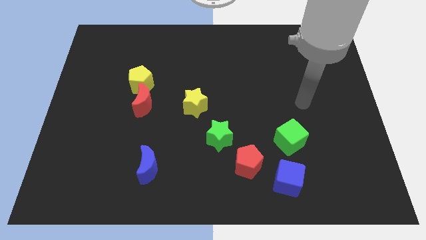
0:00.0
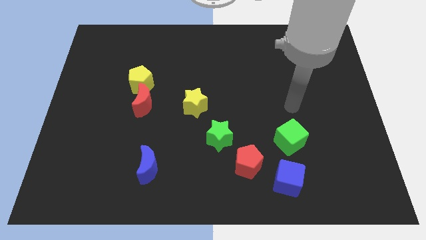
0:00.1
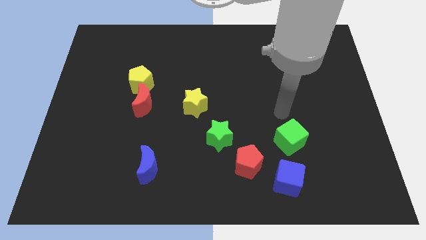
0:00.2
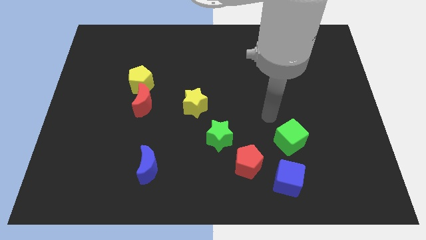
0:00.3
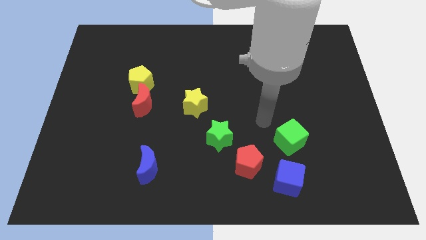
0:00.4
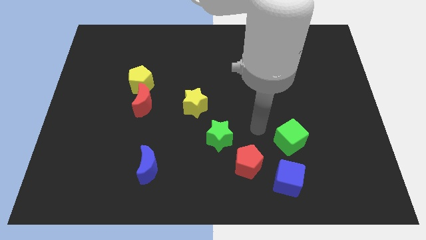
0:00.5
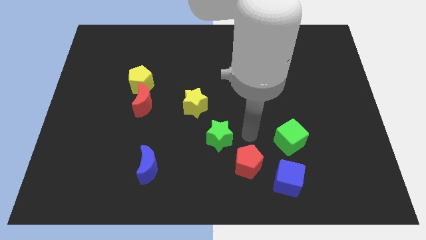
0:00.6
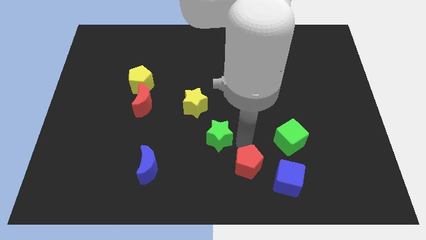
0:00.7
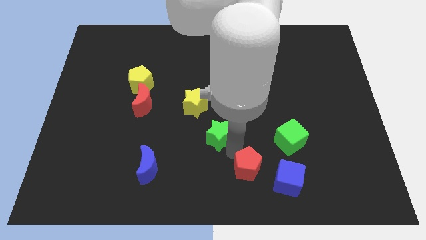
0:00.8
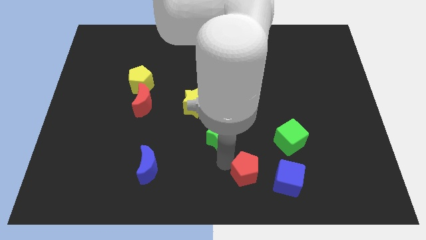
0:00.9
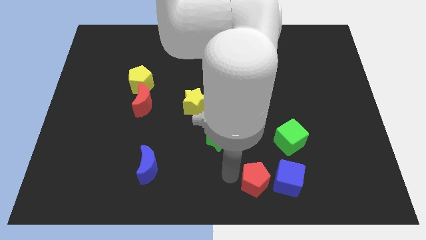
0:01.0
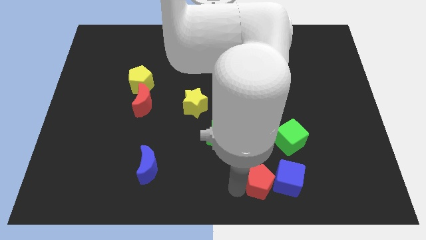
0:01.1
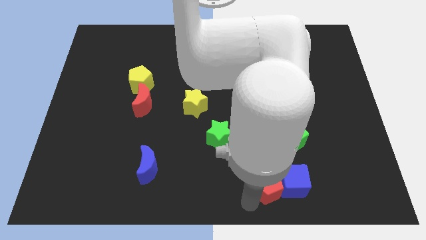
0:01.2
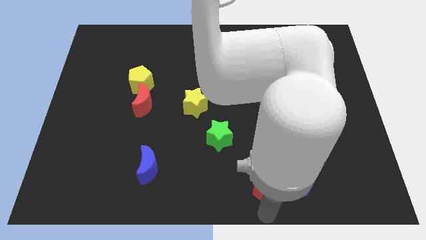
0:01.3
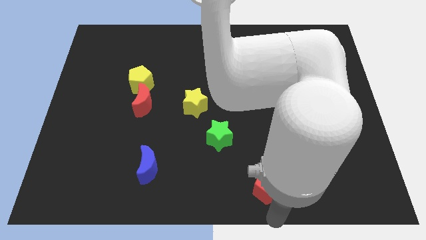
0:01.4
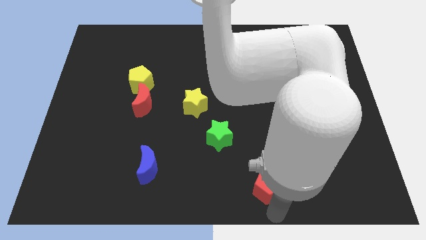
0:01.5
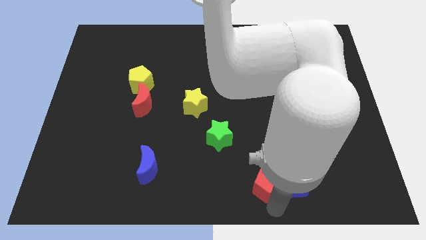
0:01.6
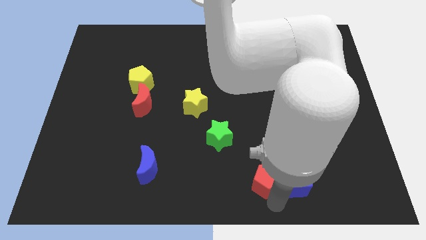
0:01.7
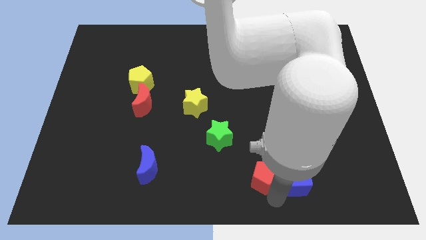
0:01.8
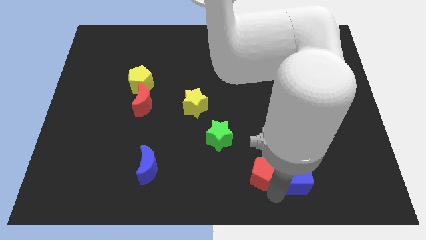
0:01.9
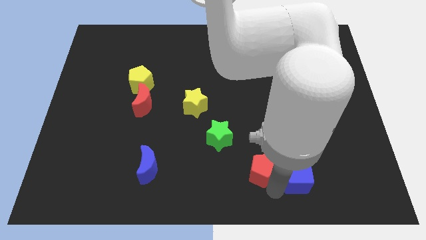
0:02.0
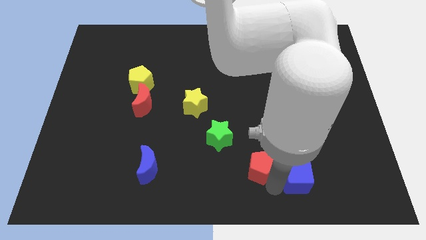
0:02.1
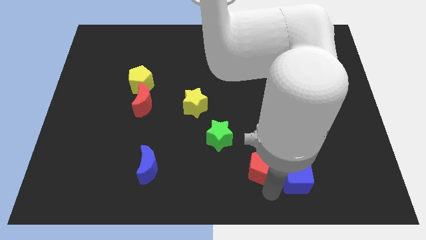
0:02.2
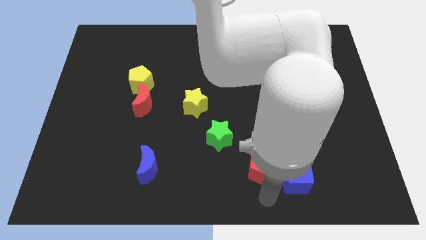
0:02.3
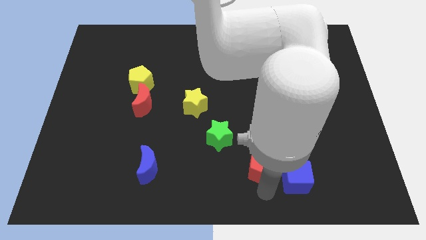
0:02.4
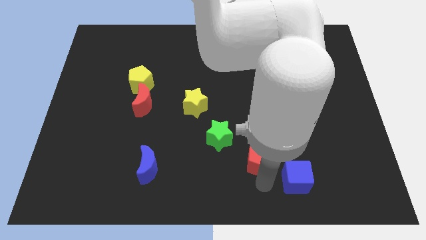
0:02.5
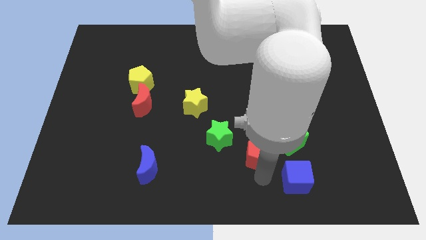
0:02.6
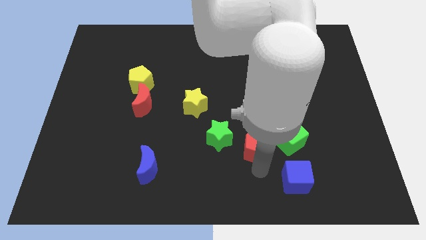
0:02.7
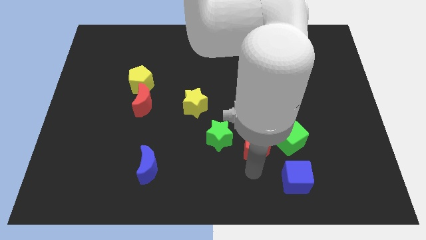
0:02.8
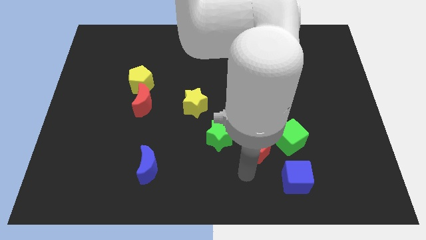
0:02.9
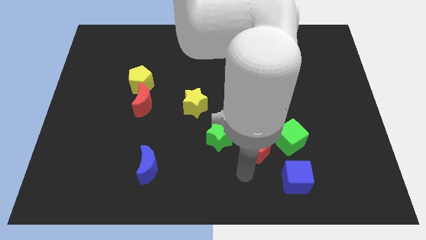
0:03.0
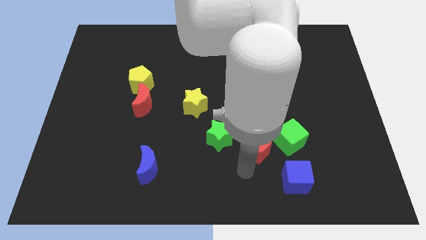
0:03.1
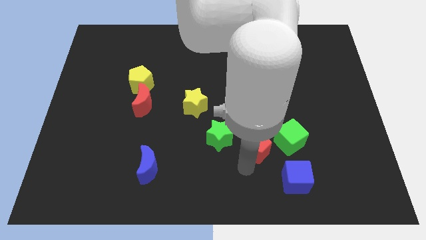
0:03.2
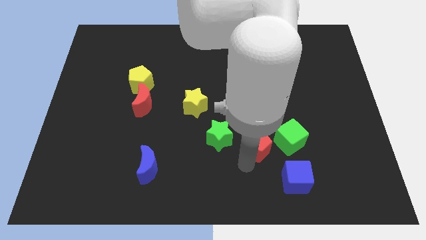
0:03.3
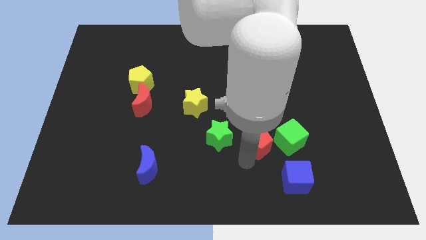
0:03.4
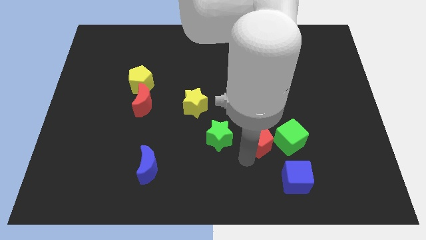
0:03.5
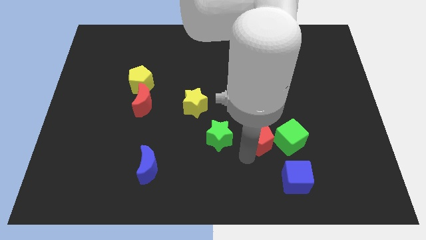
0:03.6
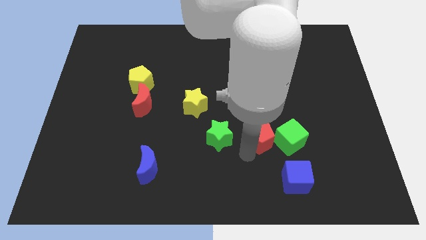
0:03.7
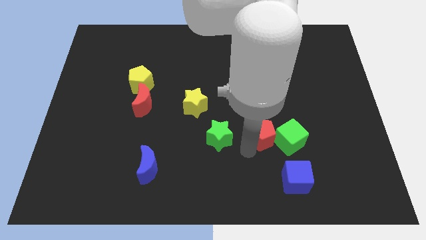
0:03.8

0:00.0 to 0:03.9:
slide the red pentagon a bit upwards and right diagonally

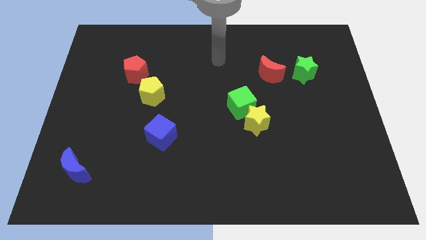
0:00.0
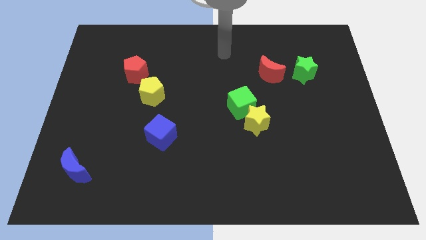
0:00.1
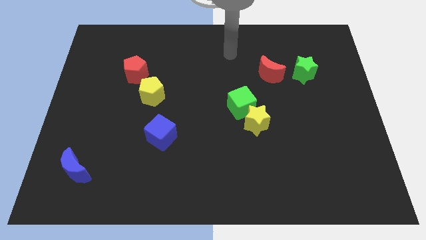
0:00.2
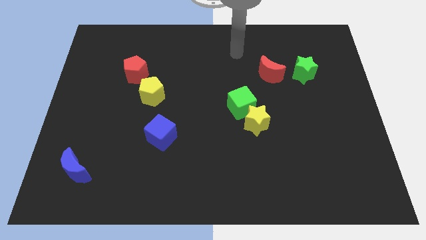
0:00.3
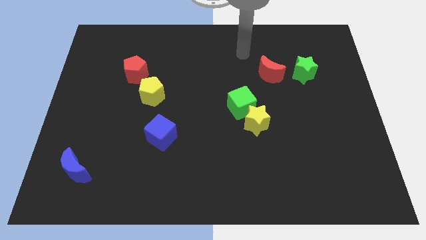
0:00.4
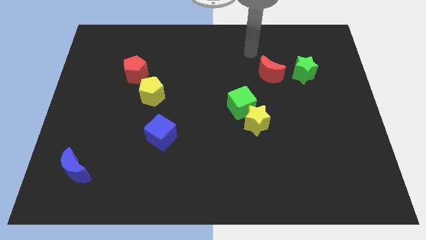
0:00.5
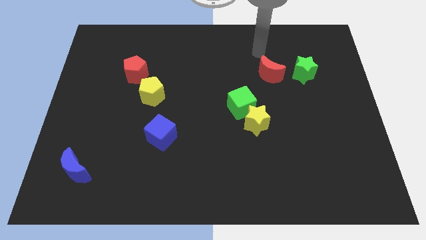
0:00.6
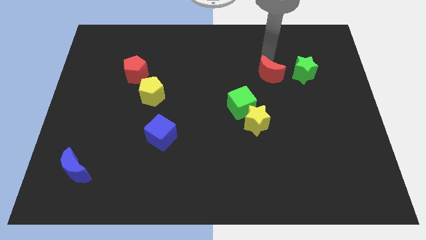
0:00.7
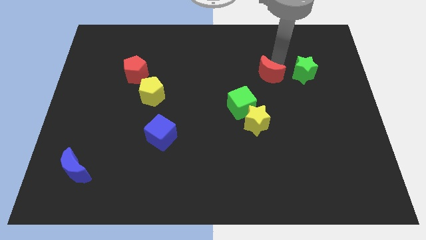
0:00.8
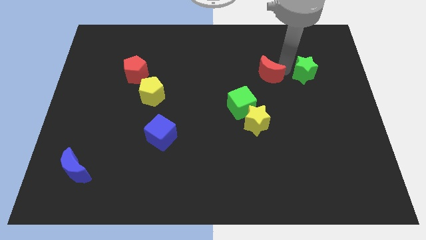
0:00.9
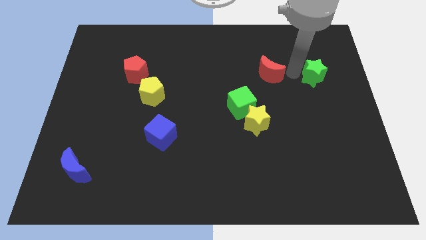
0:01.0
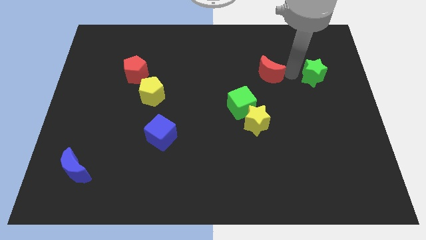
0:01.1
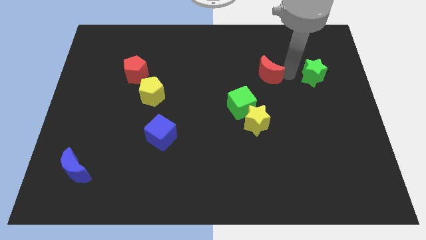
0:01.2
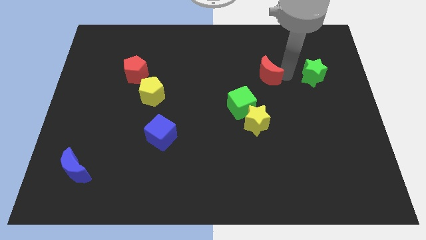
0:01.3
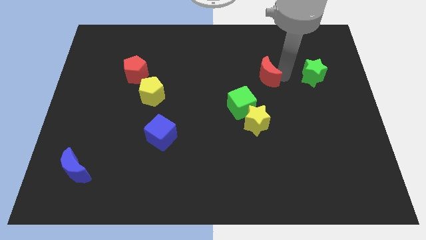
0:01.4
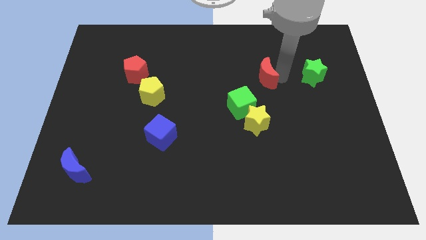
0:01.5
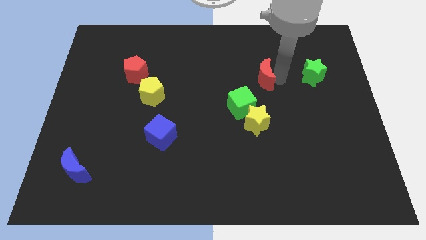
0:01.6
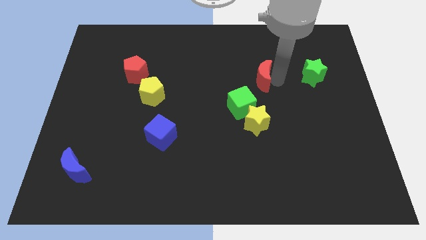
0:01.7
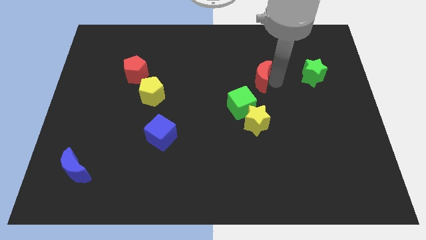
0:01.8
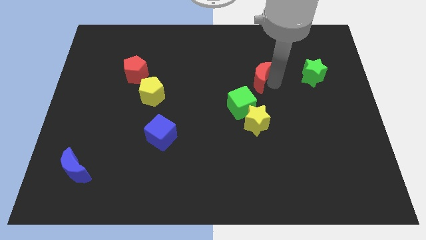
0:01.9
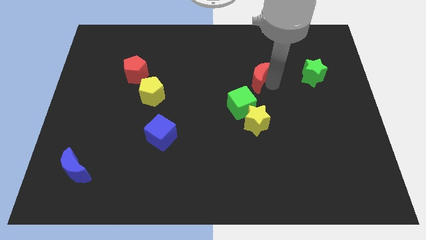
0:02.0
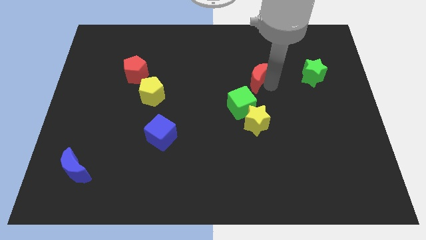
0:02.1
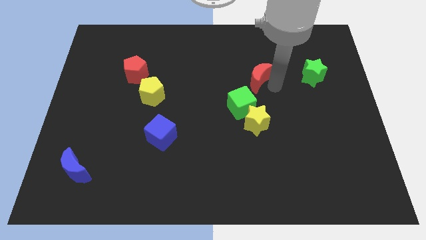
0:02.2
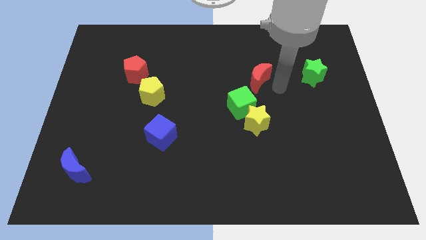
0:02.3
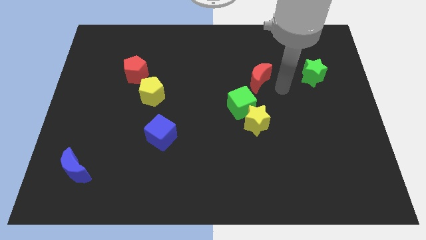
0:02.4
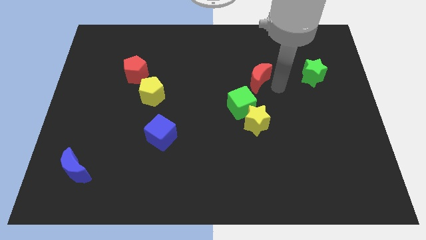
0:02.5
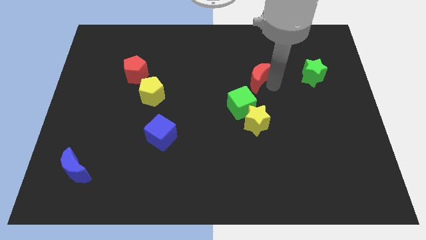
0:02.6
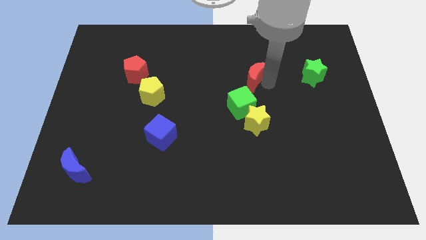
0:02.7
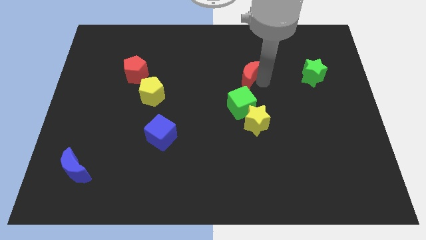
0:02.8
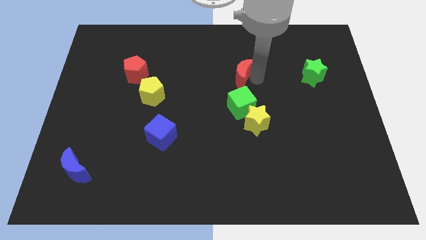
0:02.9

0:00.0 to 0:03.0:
slide the red moon to the left a little bit

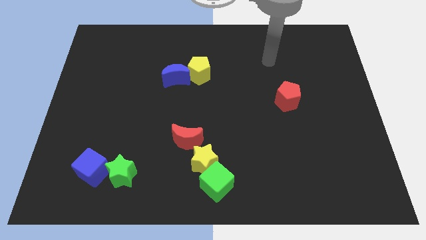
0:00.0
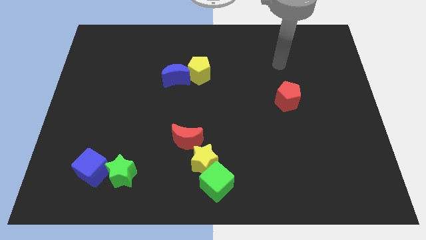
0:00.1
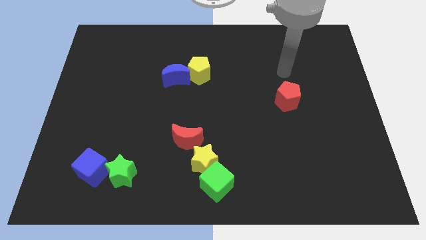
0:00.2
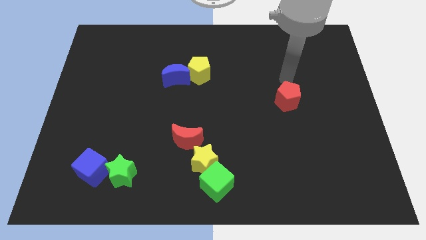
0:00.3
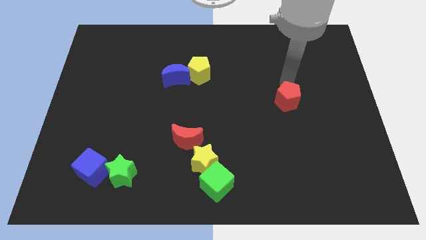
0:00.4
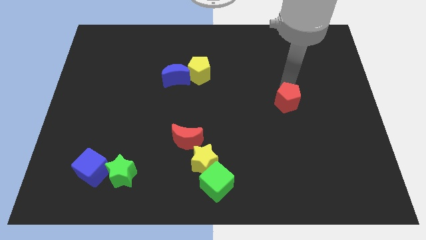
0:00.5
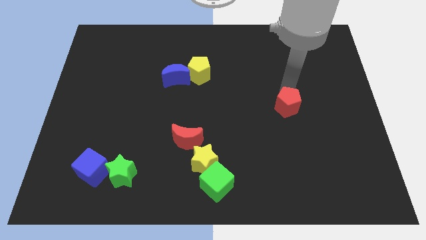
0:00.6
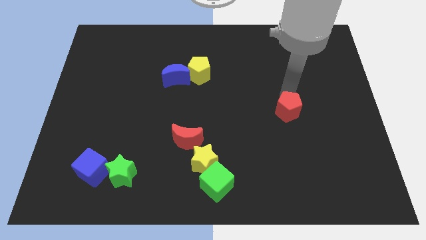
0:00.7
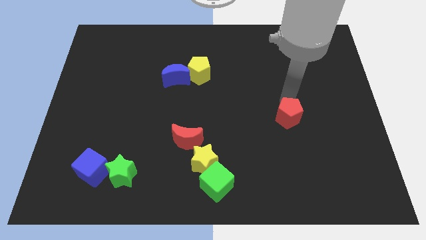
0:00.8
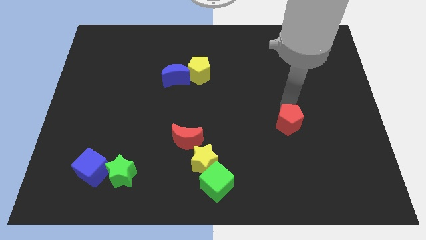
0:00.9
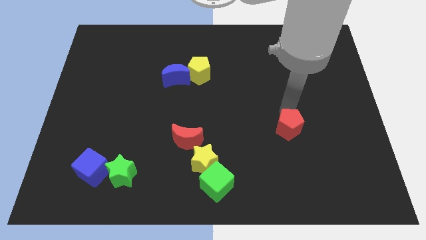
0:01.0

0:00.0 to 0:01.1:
slightly slide the red pentagon downwards
